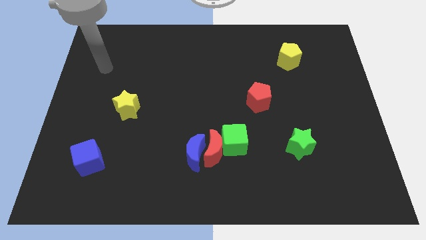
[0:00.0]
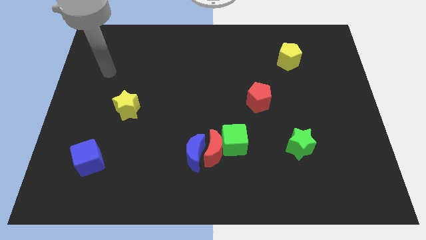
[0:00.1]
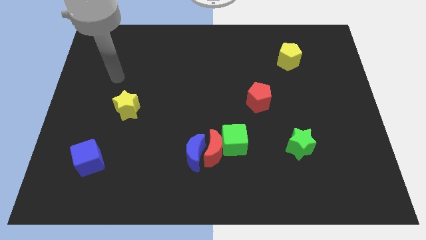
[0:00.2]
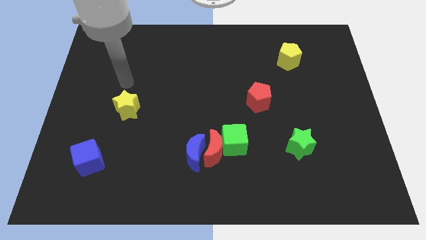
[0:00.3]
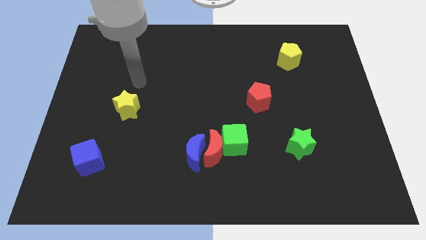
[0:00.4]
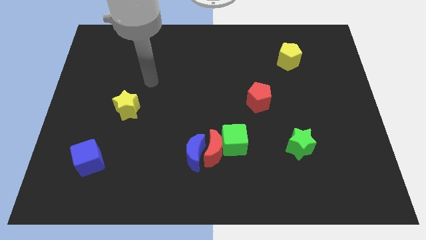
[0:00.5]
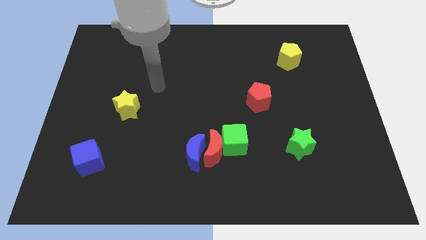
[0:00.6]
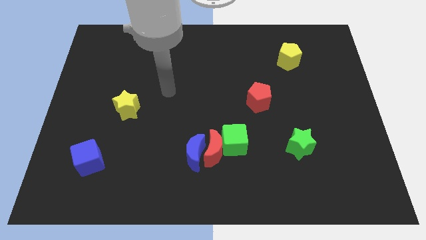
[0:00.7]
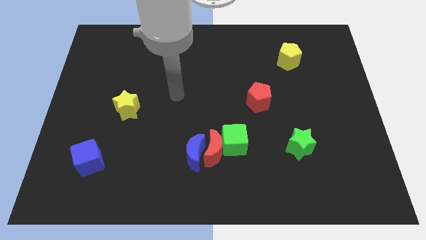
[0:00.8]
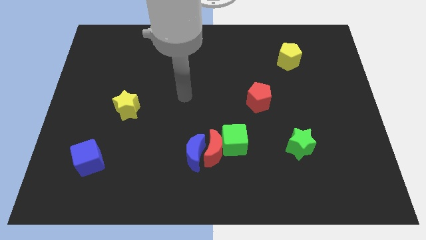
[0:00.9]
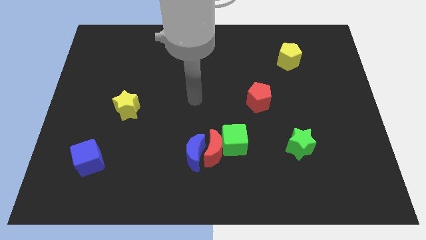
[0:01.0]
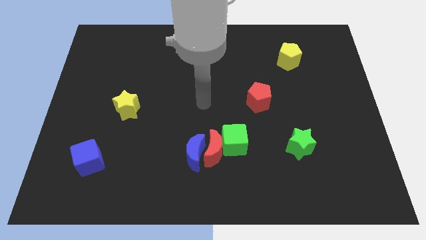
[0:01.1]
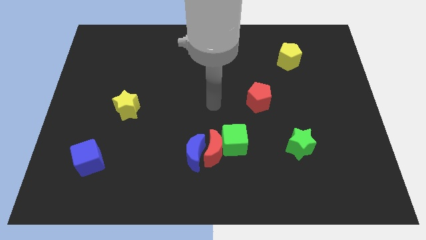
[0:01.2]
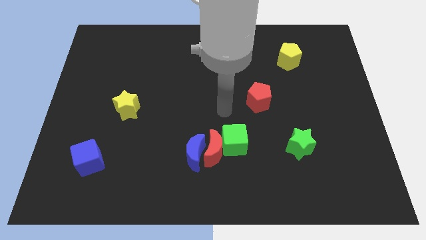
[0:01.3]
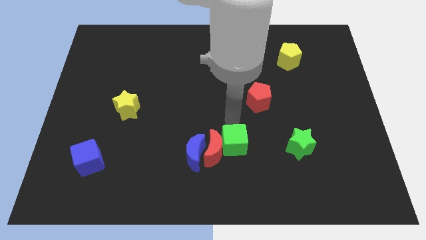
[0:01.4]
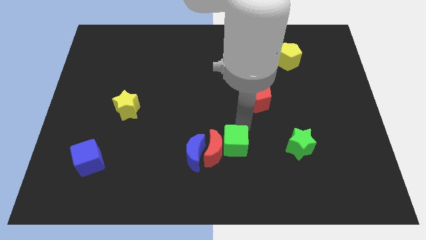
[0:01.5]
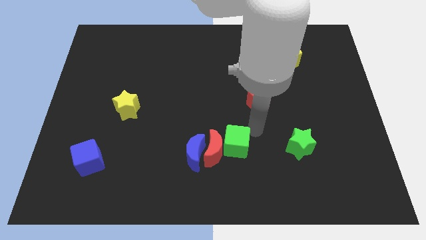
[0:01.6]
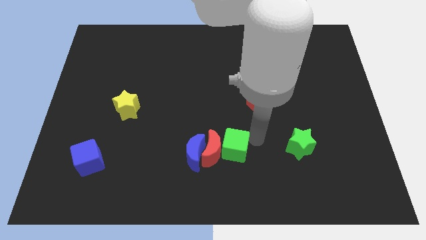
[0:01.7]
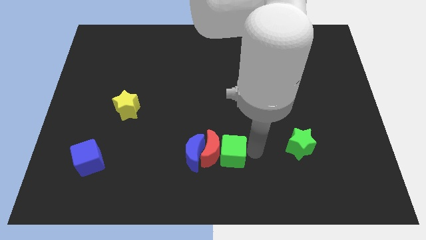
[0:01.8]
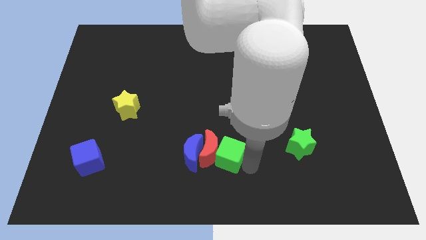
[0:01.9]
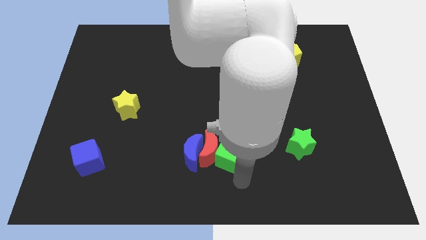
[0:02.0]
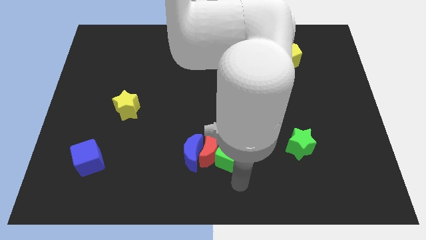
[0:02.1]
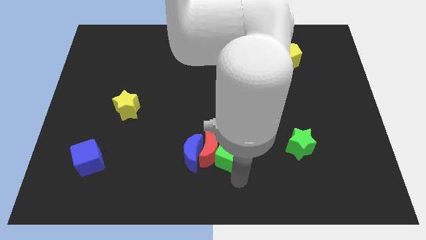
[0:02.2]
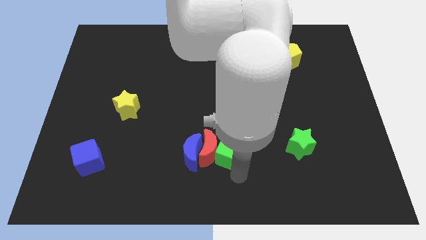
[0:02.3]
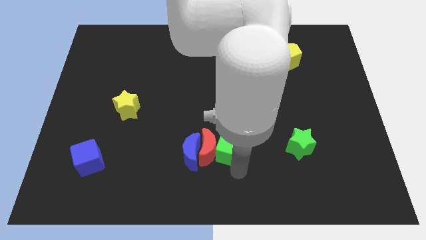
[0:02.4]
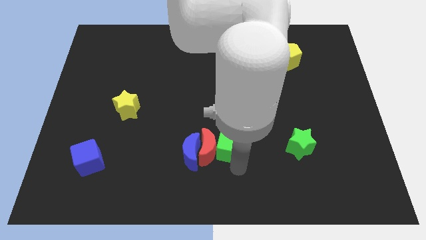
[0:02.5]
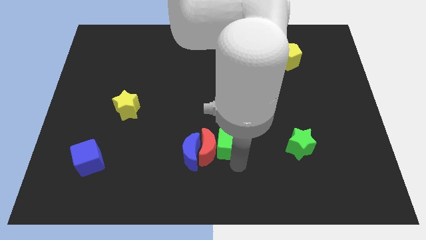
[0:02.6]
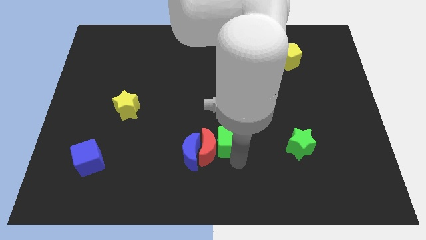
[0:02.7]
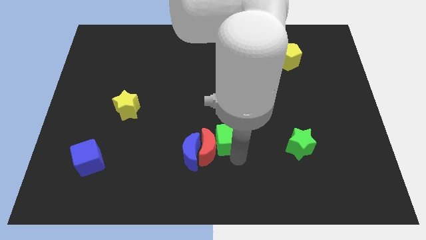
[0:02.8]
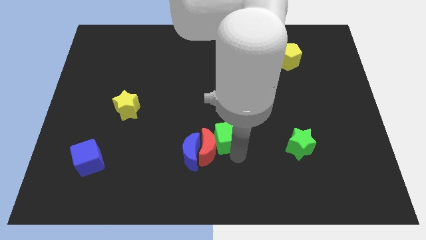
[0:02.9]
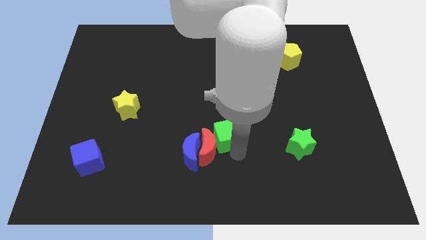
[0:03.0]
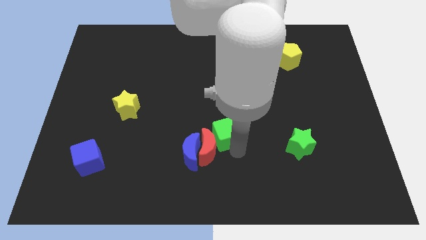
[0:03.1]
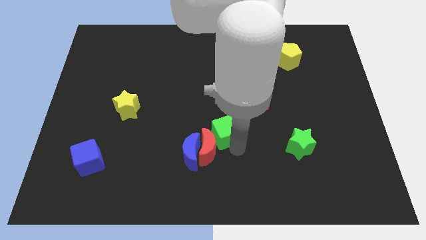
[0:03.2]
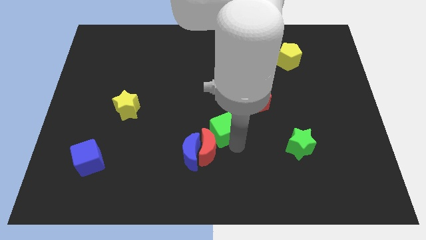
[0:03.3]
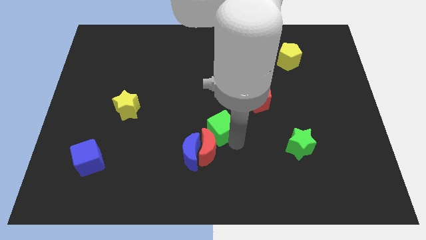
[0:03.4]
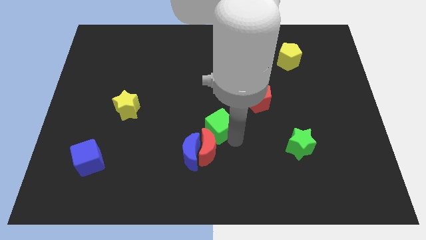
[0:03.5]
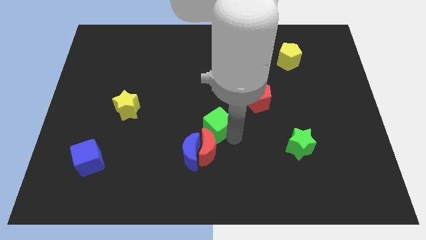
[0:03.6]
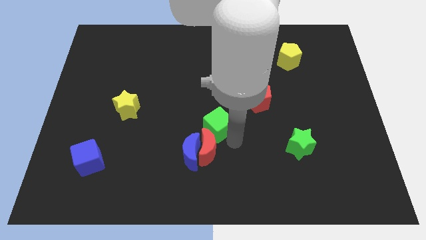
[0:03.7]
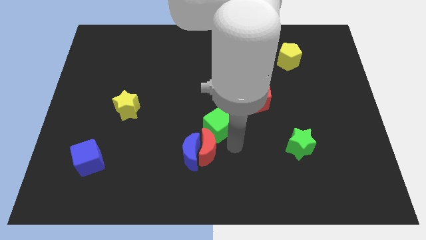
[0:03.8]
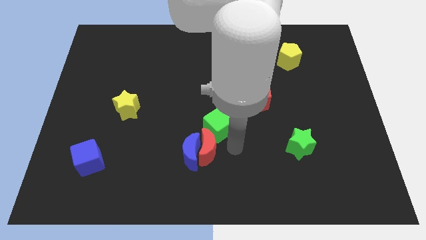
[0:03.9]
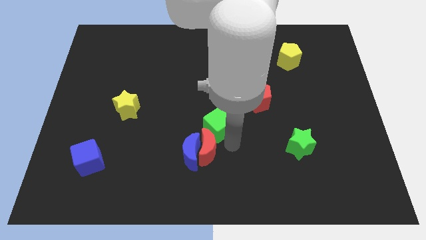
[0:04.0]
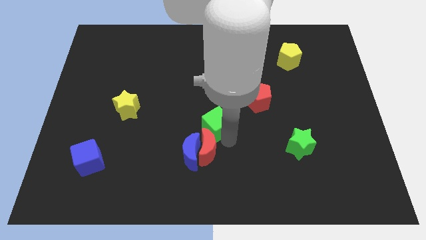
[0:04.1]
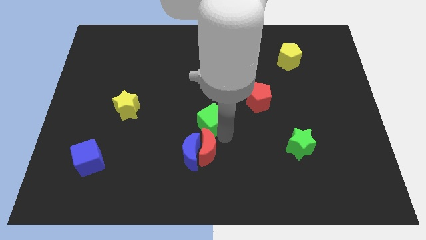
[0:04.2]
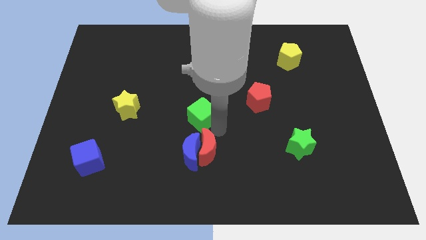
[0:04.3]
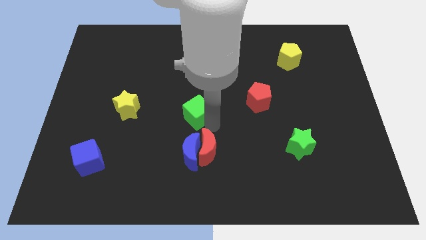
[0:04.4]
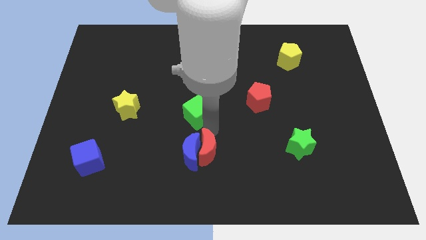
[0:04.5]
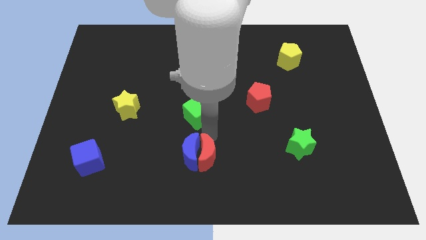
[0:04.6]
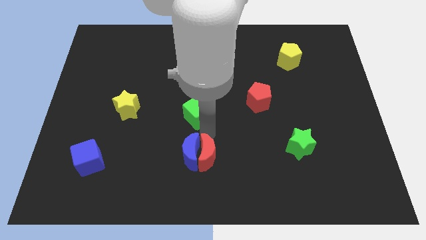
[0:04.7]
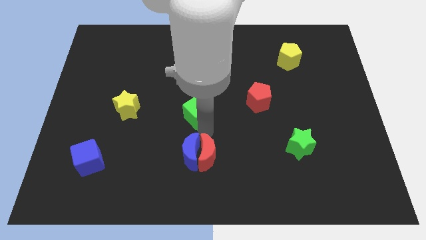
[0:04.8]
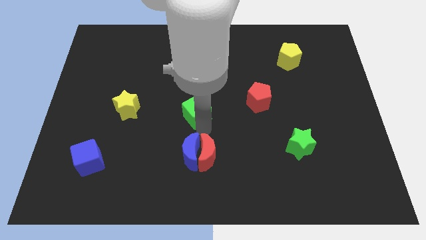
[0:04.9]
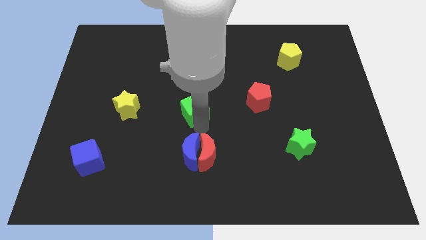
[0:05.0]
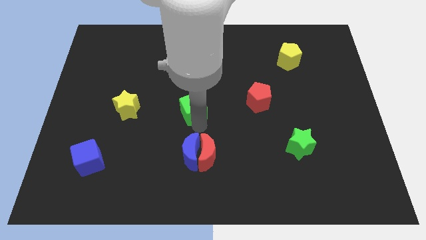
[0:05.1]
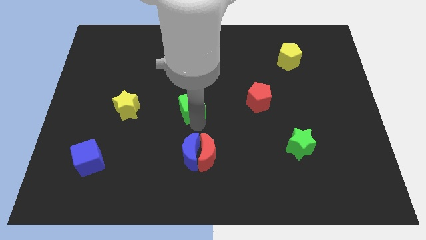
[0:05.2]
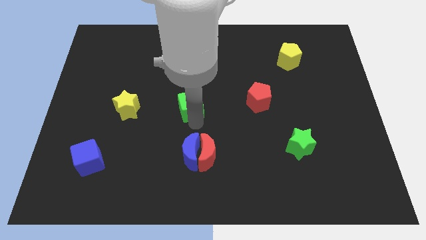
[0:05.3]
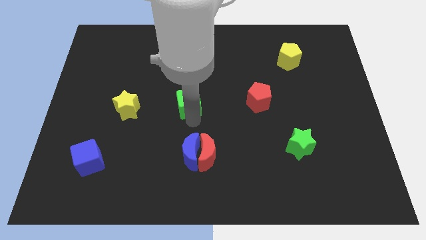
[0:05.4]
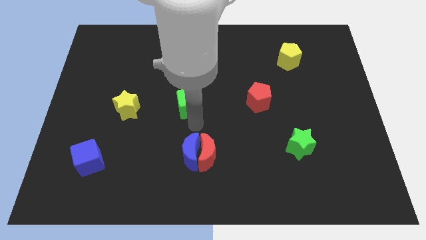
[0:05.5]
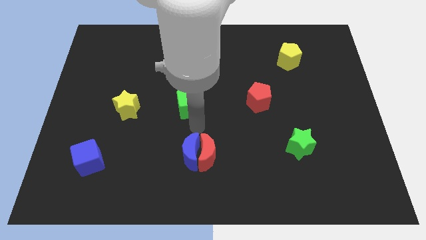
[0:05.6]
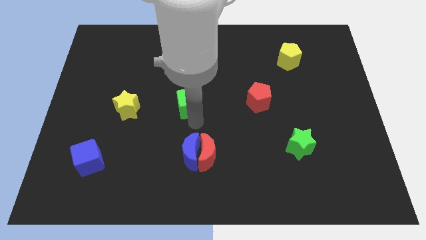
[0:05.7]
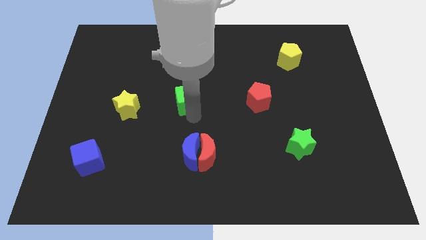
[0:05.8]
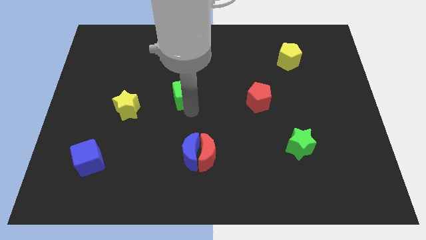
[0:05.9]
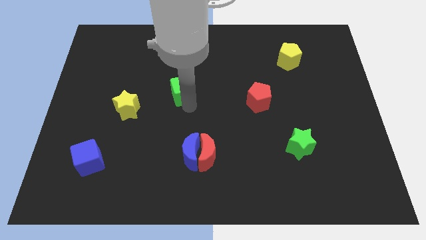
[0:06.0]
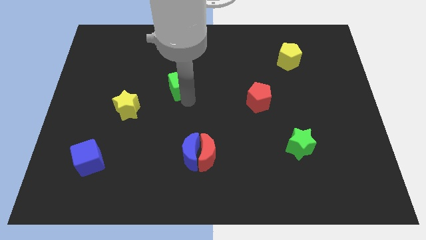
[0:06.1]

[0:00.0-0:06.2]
push the green cube upwards and to the left

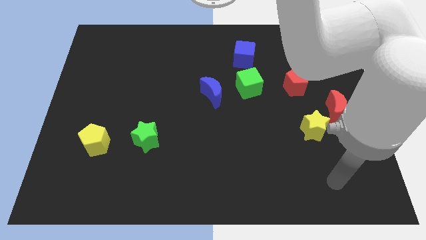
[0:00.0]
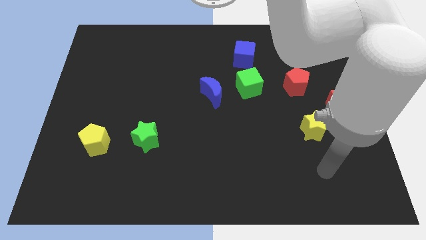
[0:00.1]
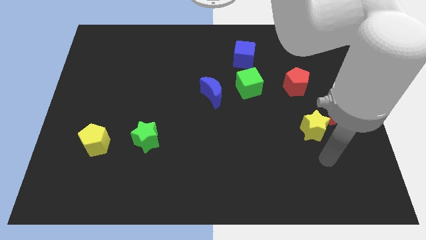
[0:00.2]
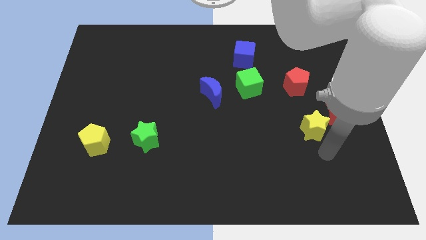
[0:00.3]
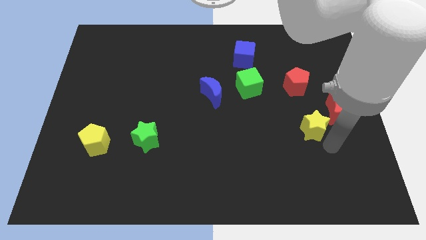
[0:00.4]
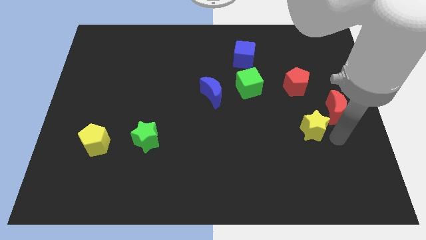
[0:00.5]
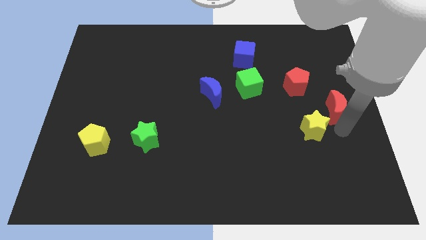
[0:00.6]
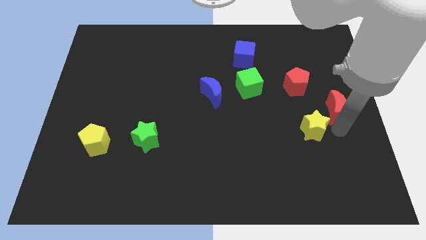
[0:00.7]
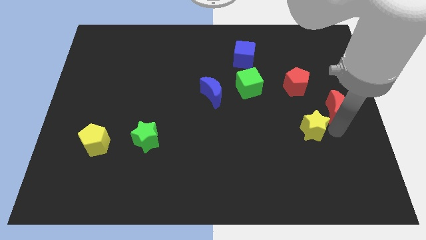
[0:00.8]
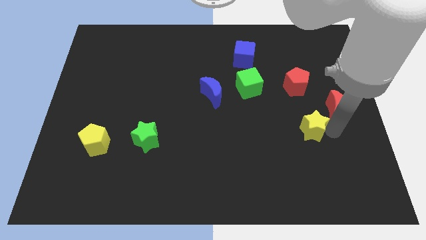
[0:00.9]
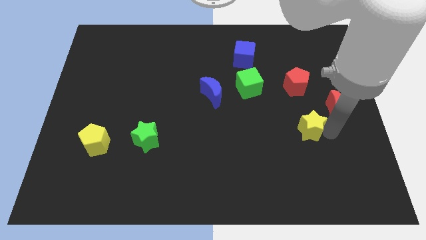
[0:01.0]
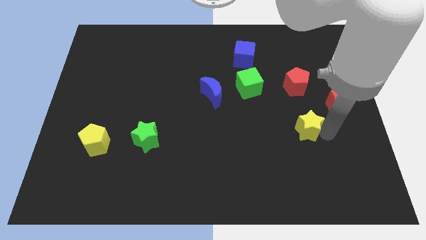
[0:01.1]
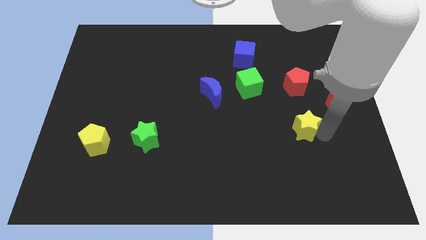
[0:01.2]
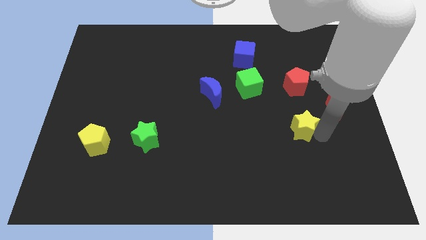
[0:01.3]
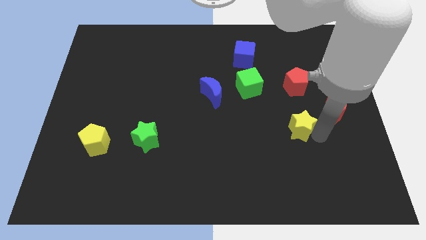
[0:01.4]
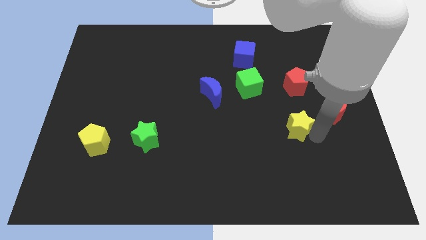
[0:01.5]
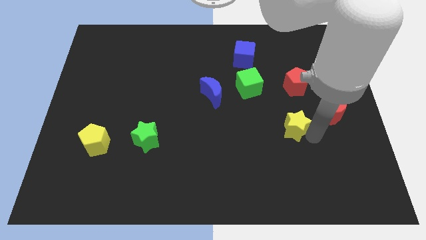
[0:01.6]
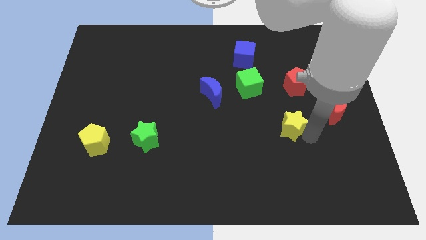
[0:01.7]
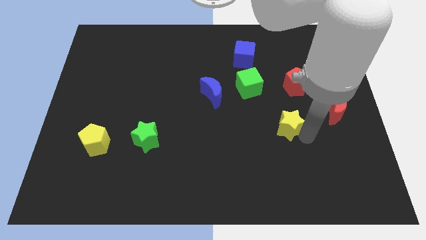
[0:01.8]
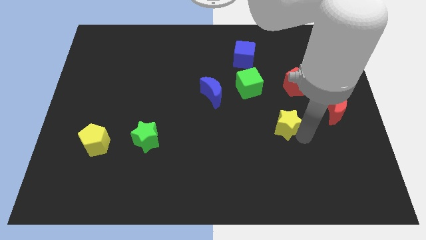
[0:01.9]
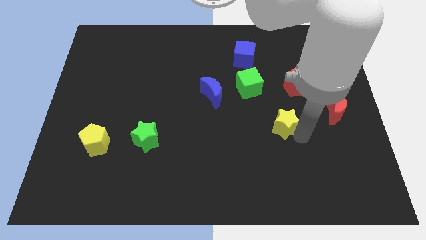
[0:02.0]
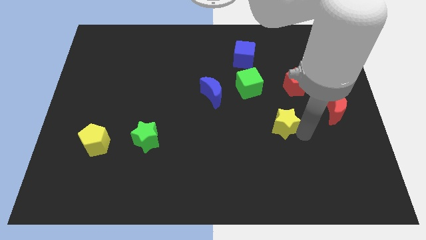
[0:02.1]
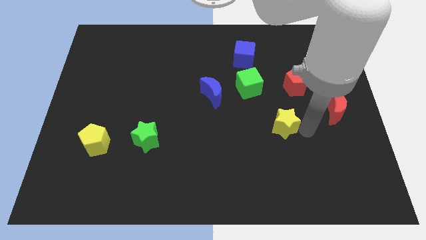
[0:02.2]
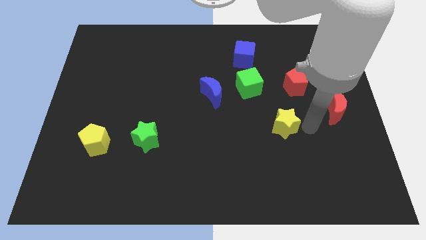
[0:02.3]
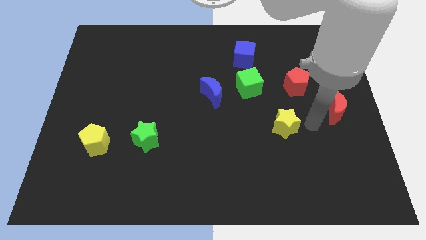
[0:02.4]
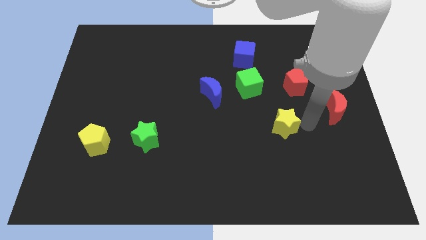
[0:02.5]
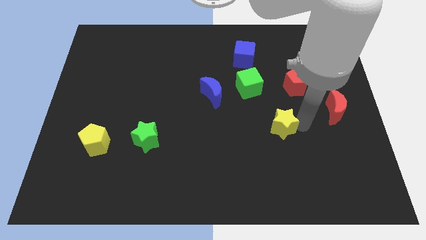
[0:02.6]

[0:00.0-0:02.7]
slightly slide the yellow star left
